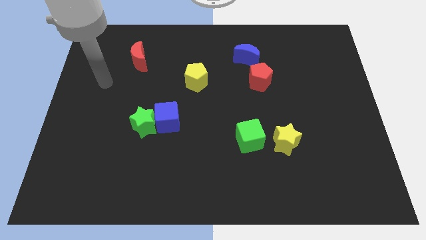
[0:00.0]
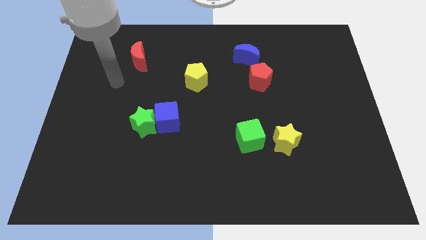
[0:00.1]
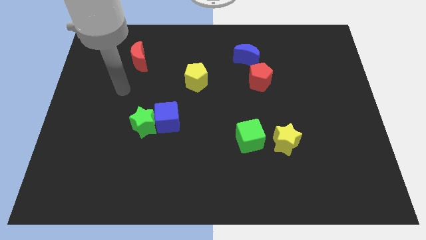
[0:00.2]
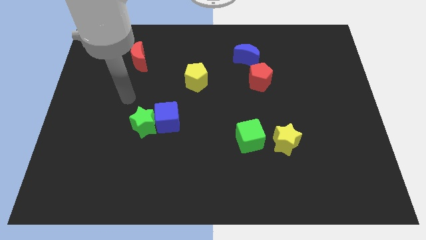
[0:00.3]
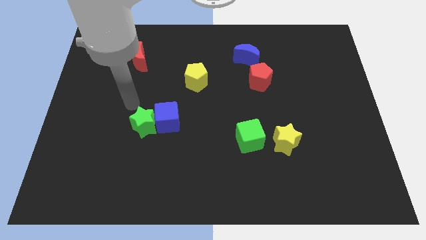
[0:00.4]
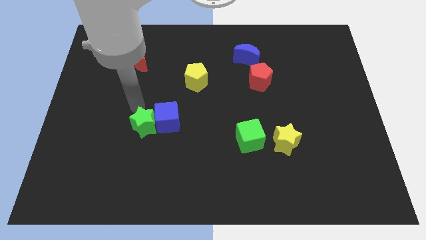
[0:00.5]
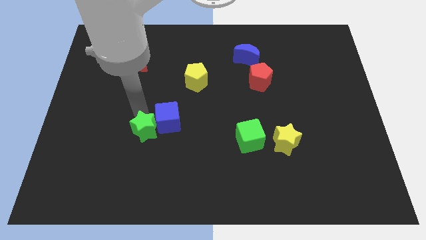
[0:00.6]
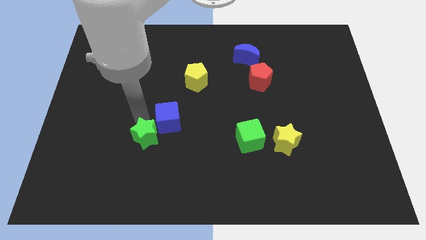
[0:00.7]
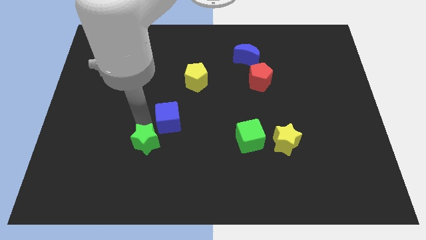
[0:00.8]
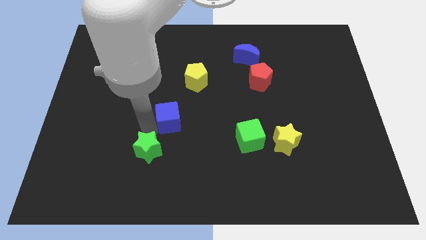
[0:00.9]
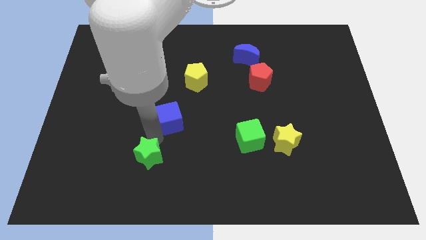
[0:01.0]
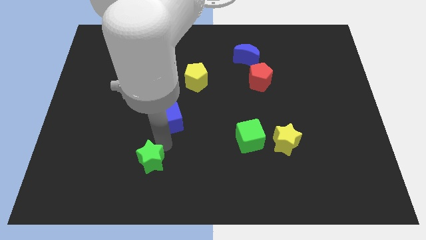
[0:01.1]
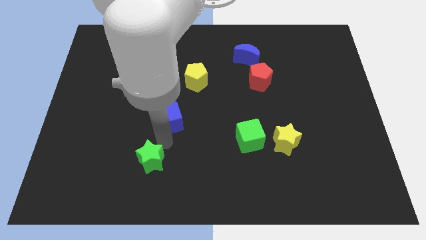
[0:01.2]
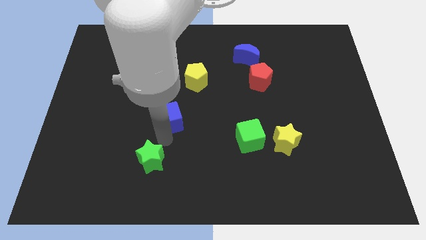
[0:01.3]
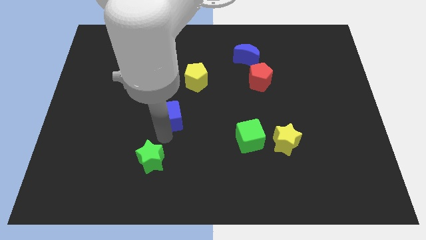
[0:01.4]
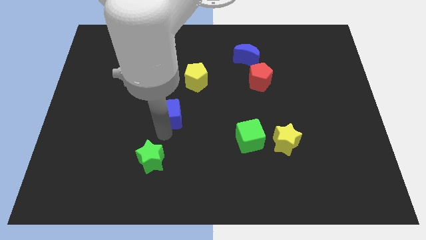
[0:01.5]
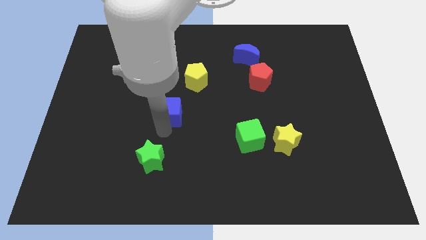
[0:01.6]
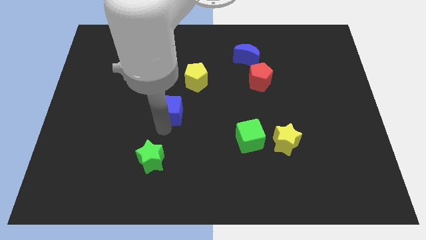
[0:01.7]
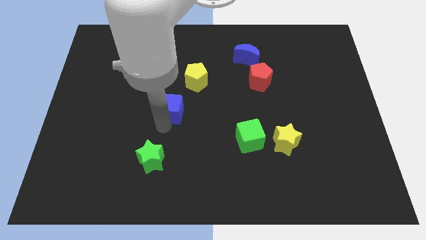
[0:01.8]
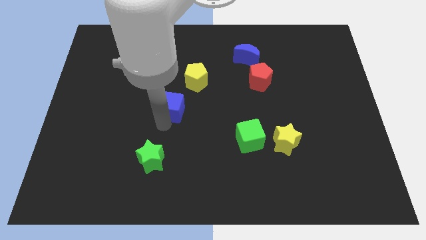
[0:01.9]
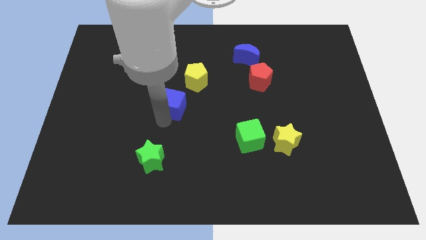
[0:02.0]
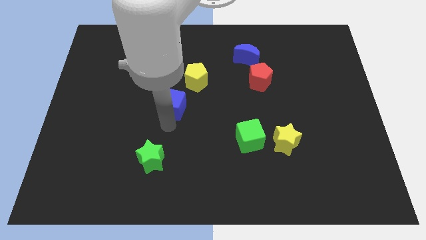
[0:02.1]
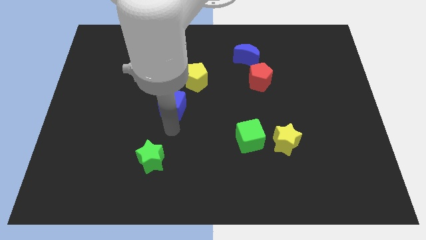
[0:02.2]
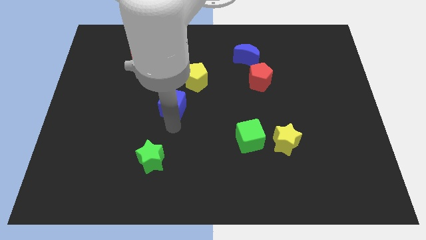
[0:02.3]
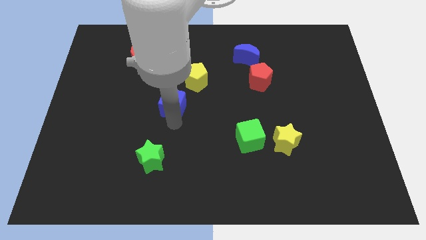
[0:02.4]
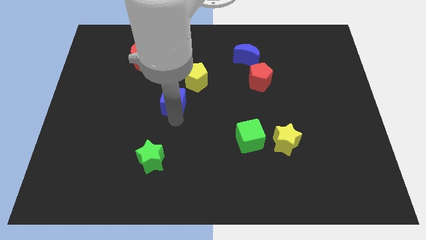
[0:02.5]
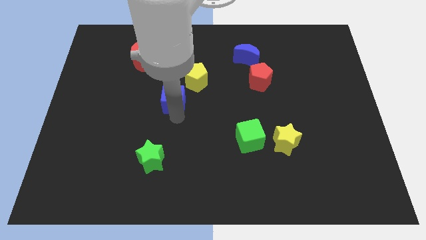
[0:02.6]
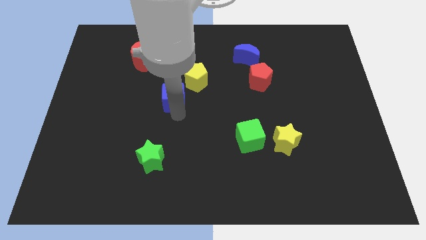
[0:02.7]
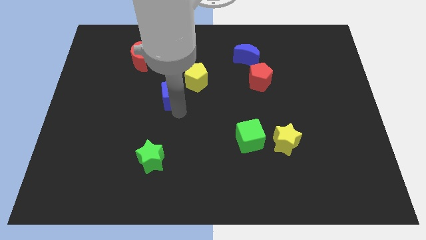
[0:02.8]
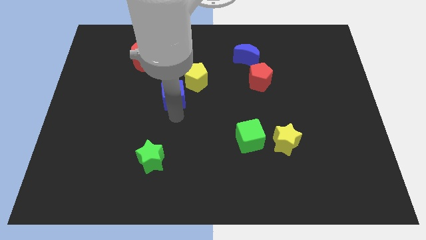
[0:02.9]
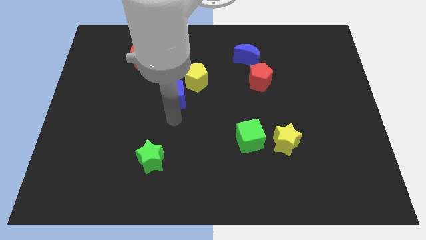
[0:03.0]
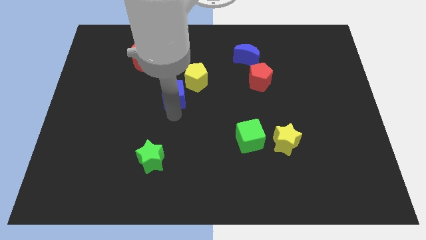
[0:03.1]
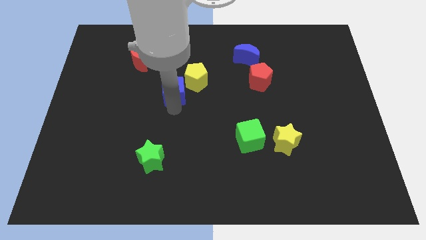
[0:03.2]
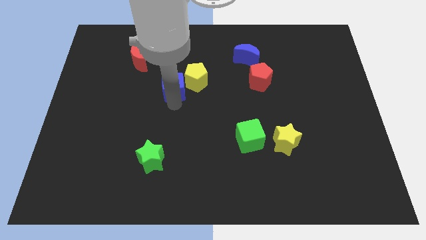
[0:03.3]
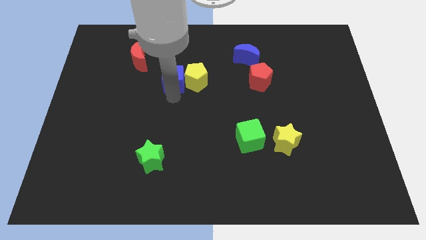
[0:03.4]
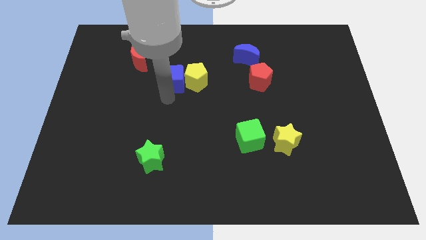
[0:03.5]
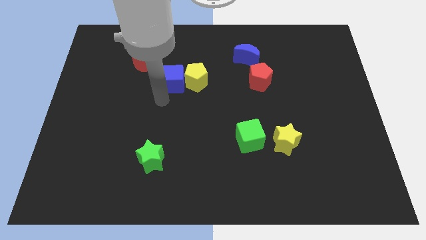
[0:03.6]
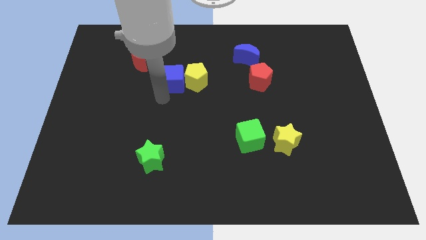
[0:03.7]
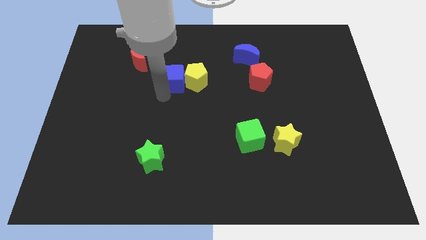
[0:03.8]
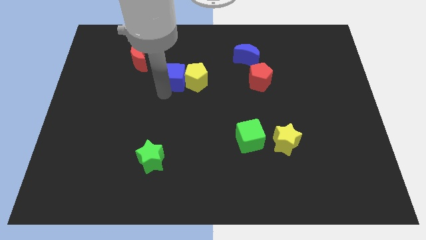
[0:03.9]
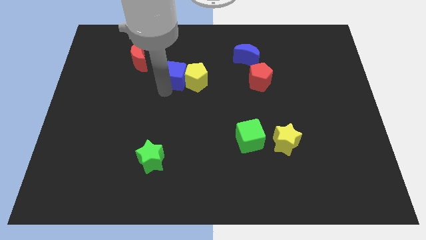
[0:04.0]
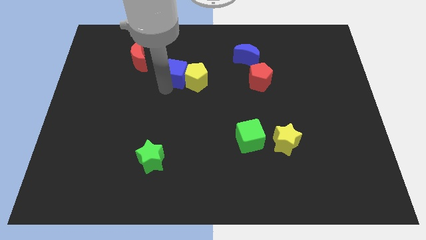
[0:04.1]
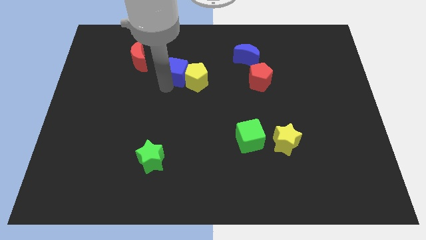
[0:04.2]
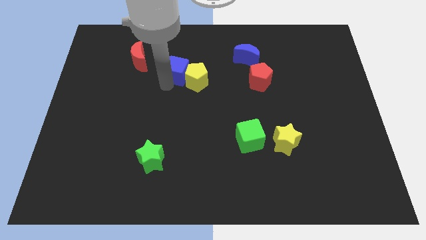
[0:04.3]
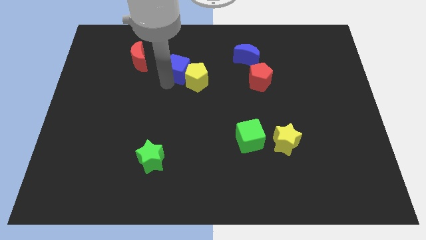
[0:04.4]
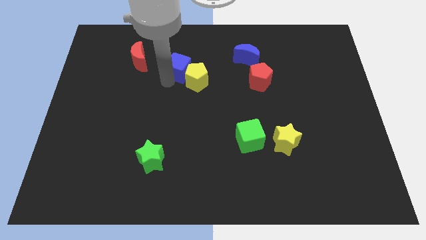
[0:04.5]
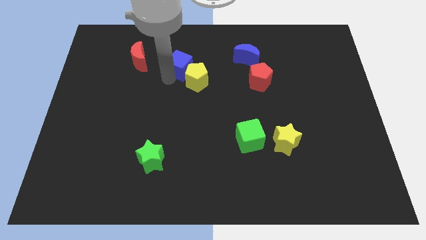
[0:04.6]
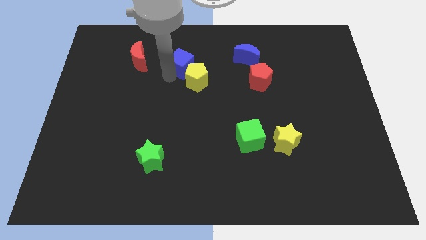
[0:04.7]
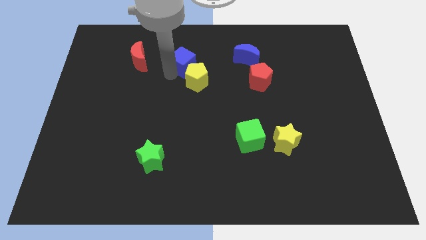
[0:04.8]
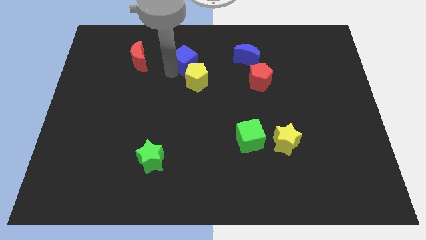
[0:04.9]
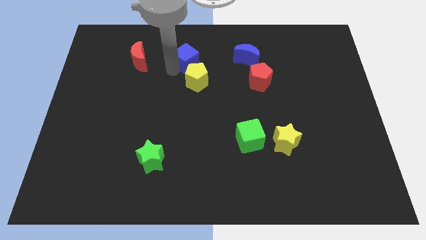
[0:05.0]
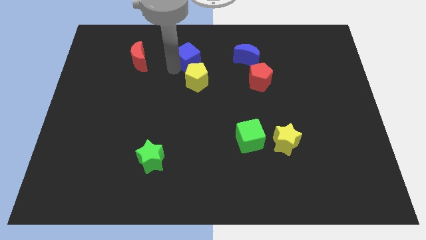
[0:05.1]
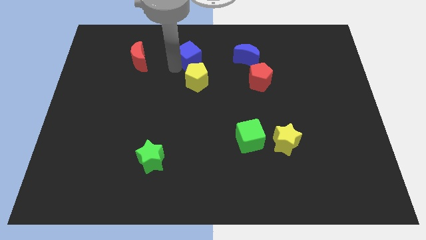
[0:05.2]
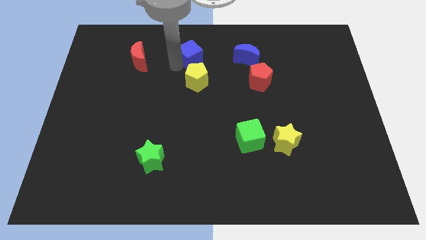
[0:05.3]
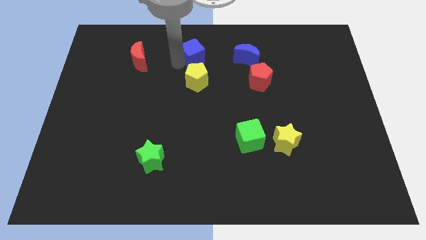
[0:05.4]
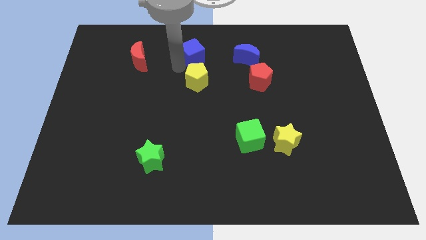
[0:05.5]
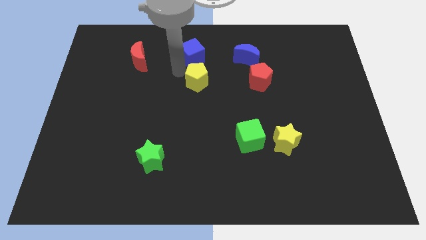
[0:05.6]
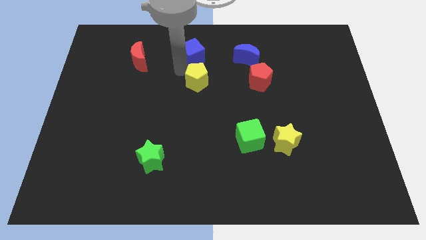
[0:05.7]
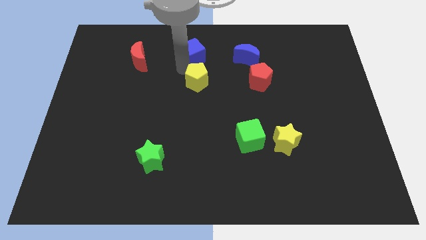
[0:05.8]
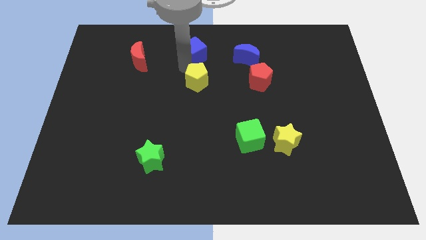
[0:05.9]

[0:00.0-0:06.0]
push the blue cube to the top side

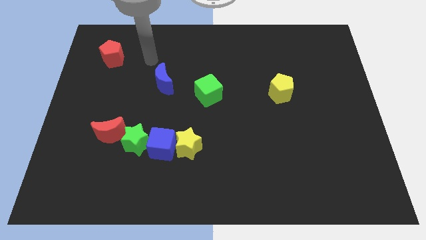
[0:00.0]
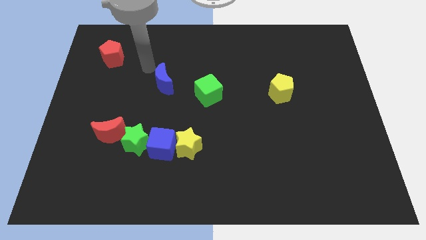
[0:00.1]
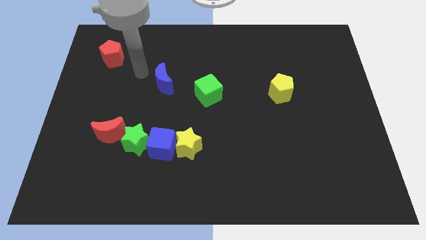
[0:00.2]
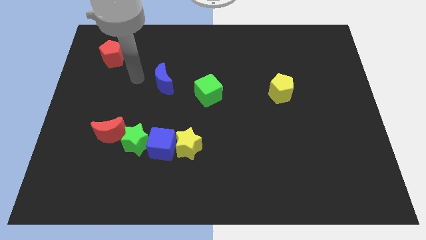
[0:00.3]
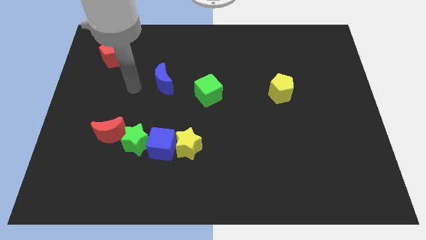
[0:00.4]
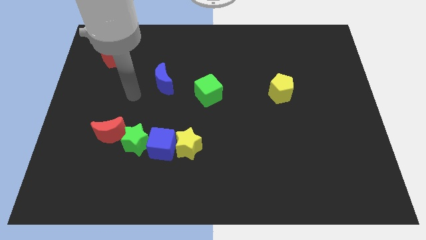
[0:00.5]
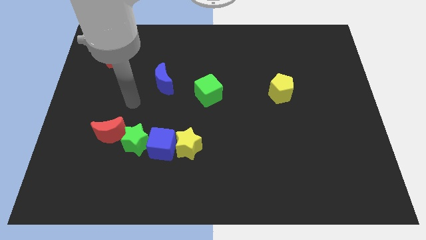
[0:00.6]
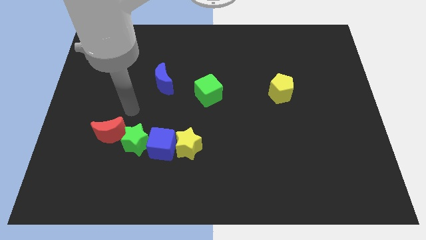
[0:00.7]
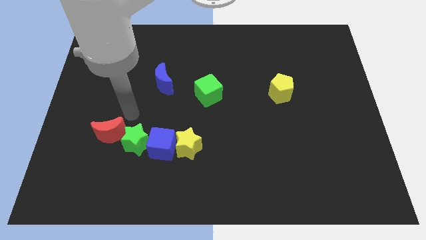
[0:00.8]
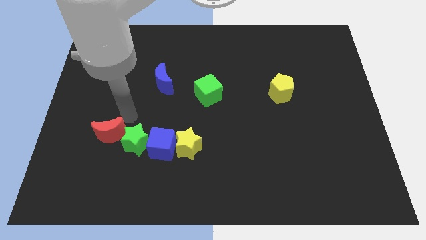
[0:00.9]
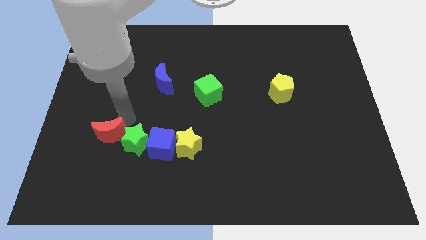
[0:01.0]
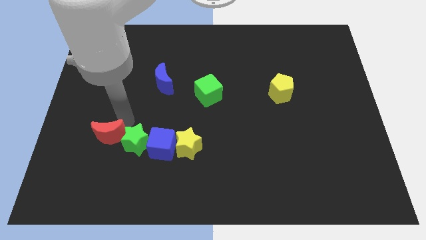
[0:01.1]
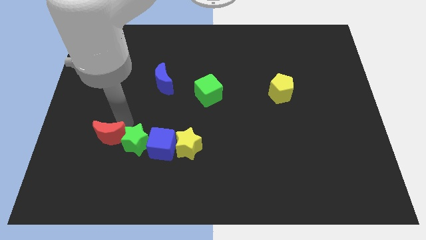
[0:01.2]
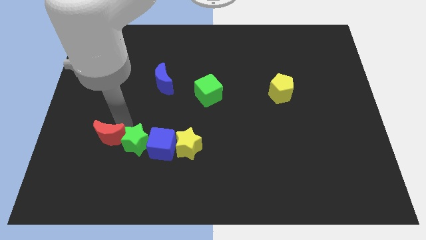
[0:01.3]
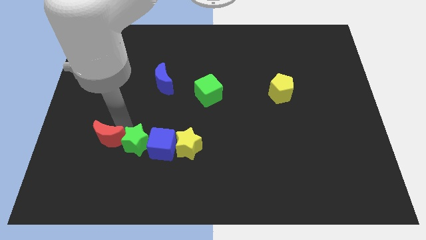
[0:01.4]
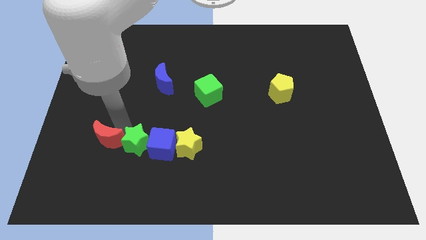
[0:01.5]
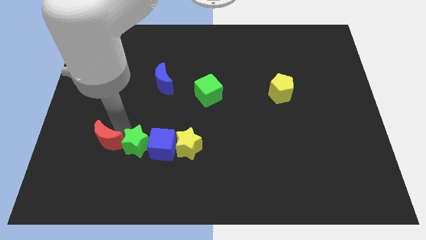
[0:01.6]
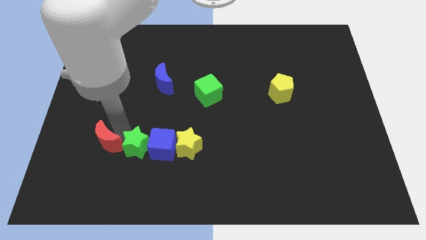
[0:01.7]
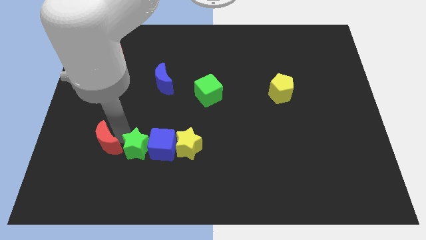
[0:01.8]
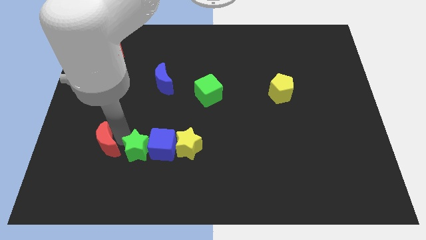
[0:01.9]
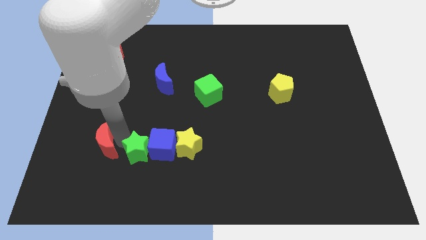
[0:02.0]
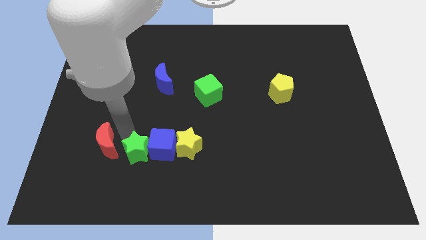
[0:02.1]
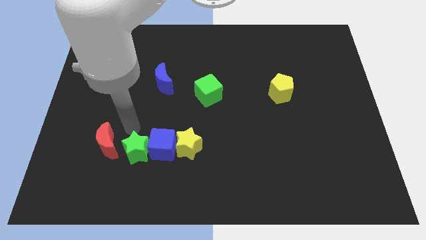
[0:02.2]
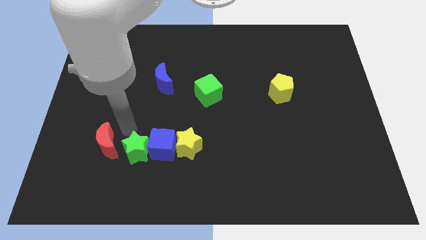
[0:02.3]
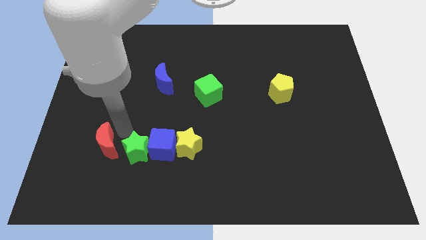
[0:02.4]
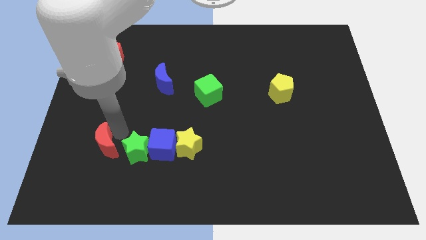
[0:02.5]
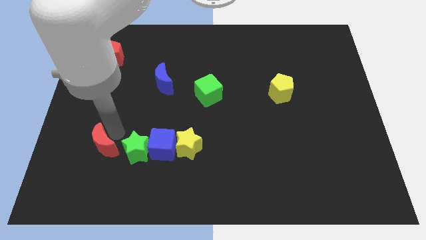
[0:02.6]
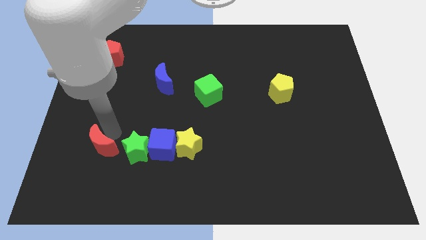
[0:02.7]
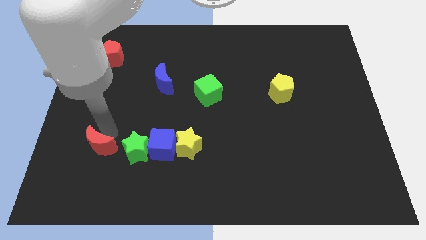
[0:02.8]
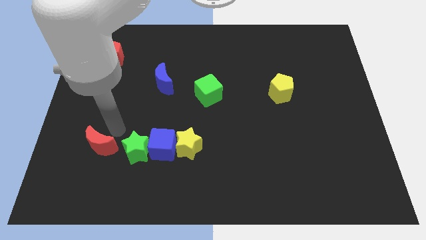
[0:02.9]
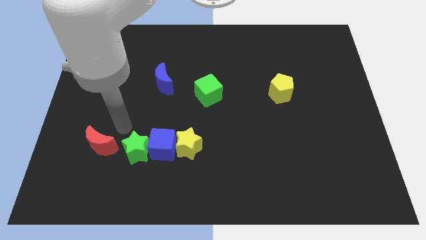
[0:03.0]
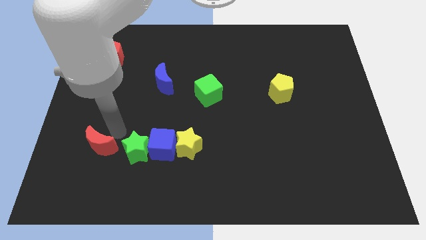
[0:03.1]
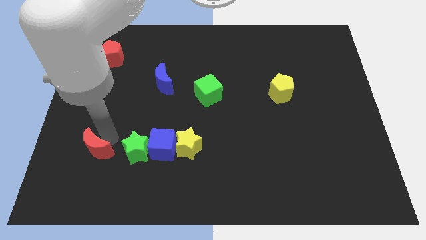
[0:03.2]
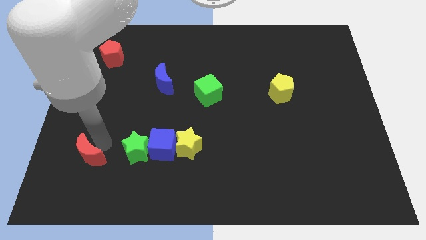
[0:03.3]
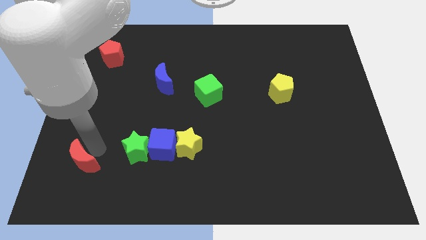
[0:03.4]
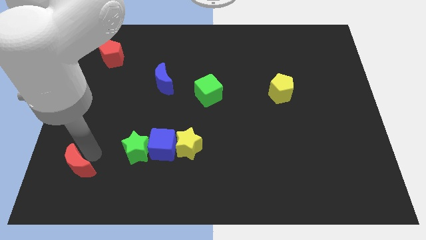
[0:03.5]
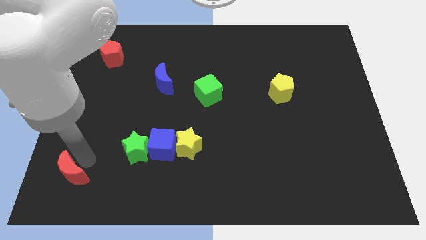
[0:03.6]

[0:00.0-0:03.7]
slide the red moon to the lower left corner
